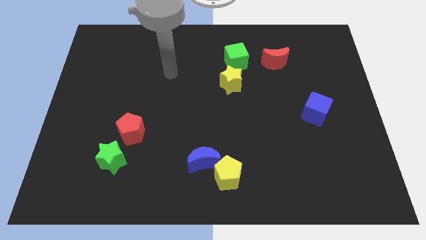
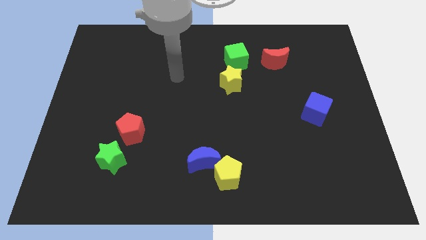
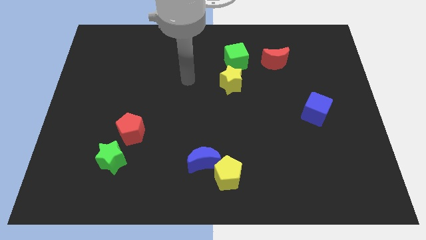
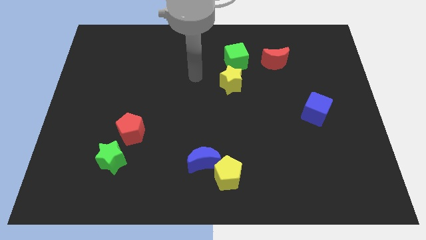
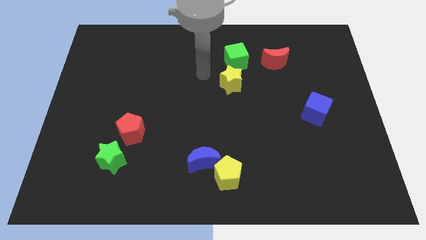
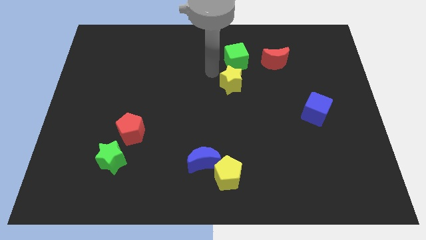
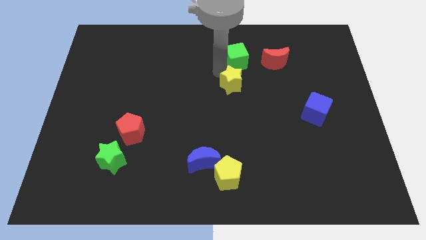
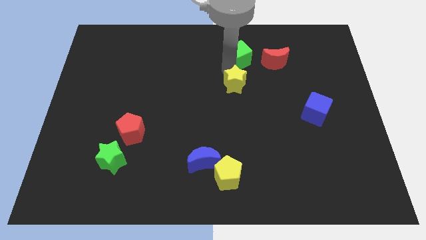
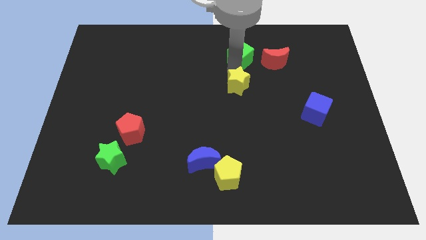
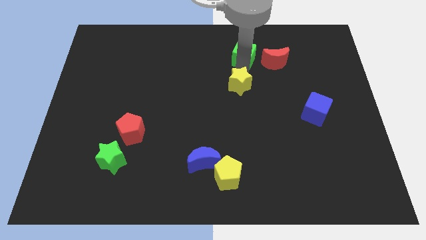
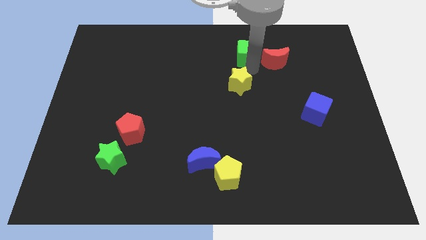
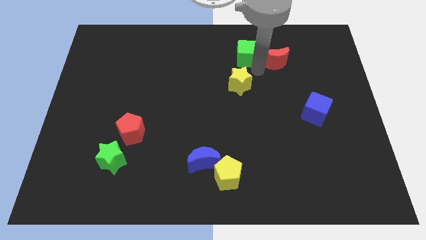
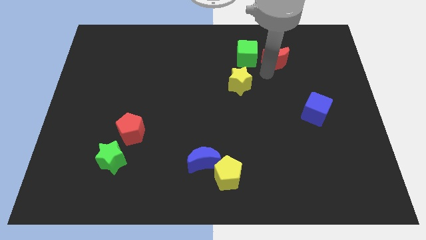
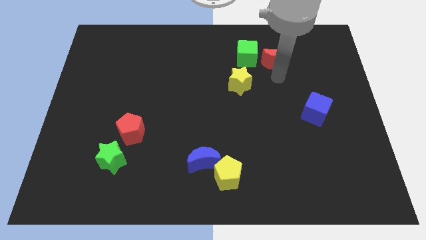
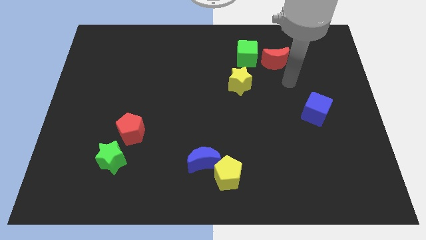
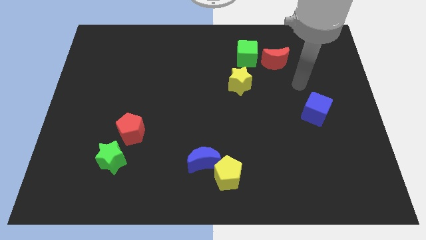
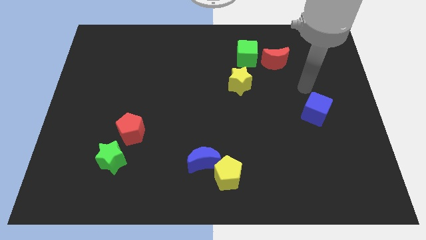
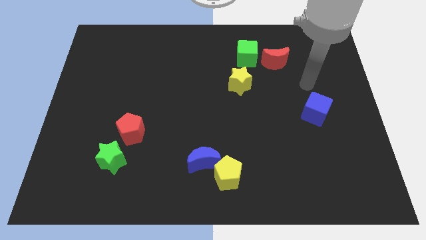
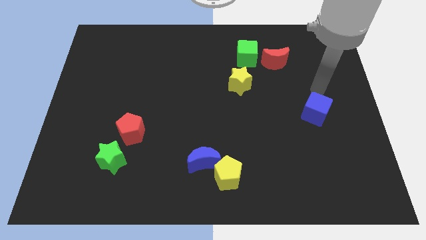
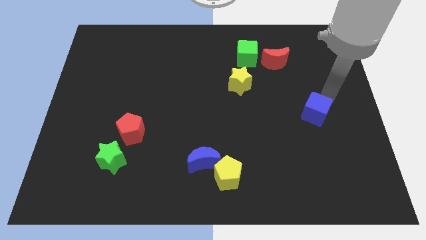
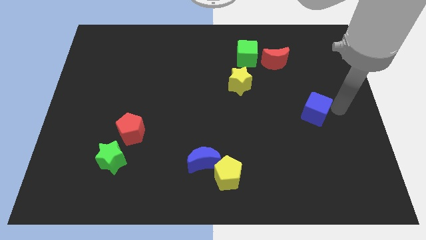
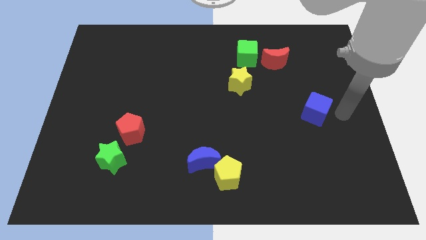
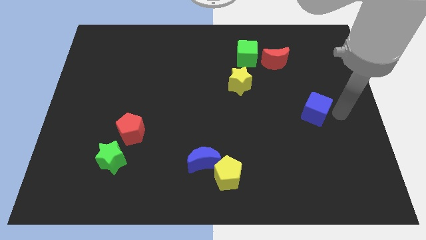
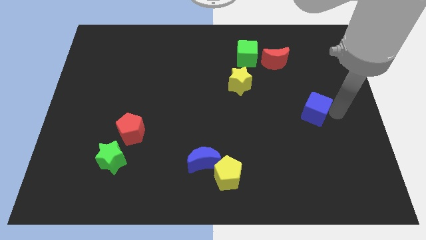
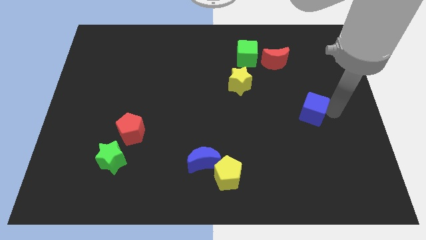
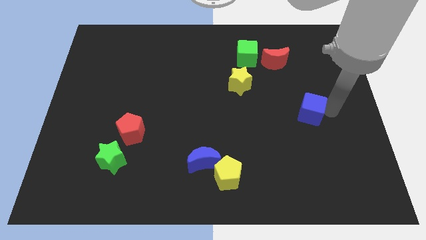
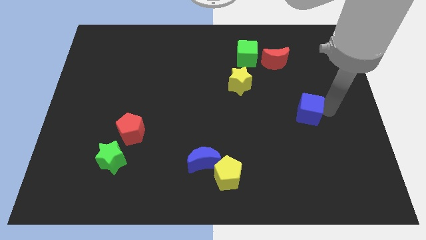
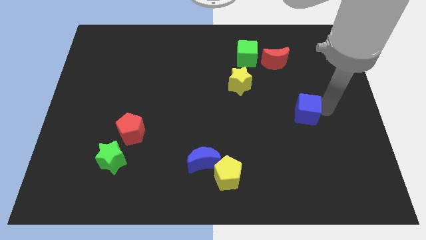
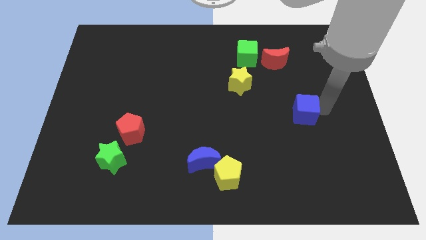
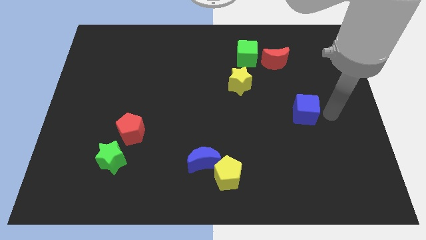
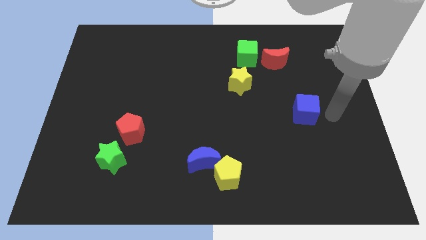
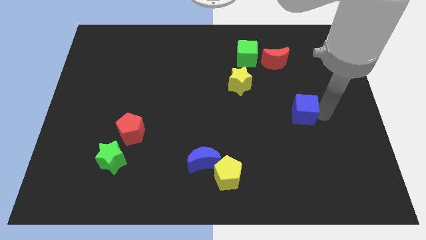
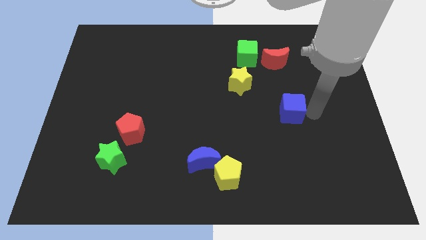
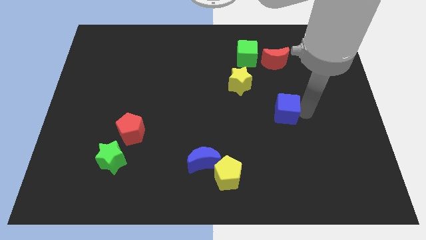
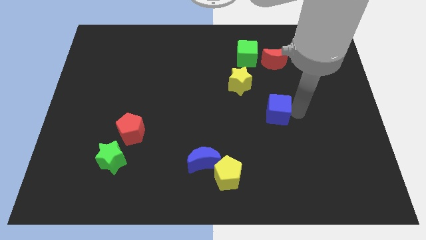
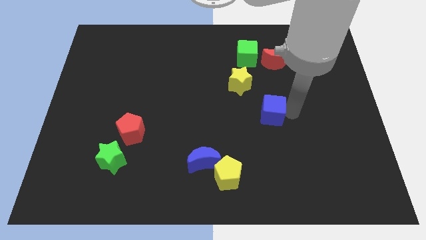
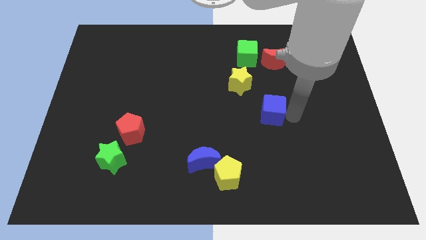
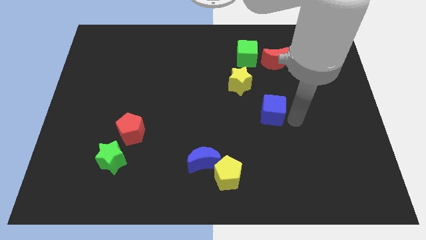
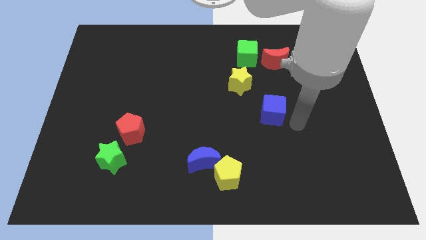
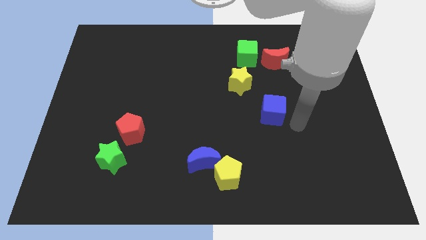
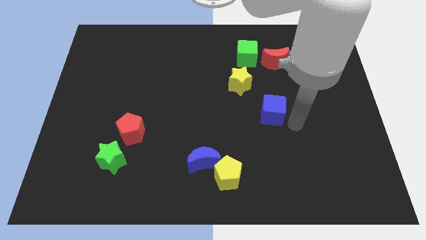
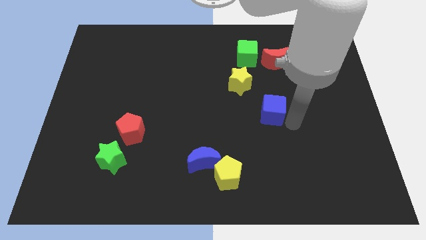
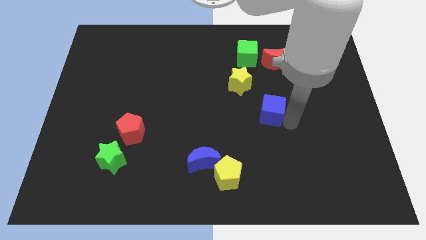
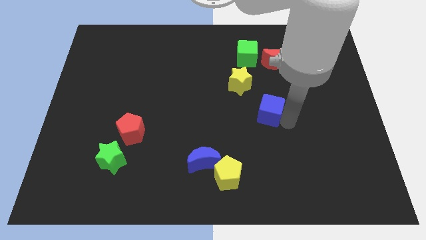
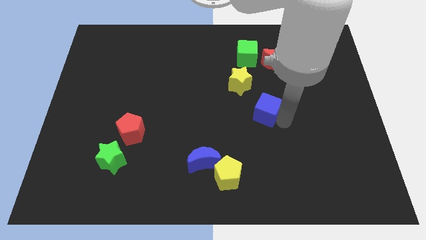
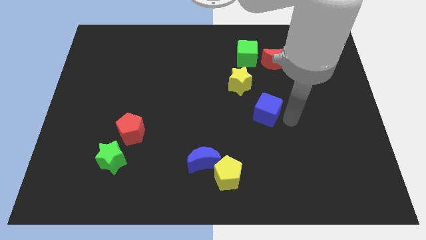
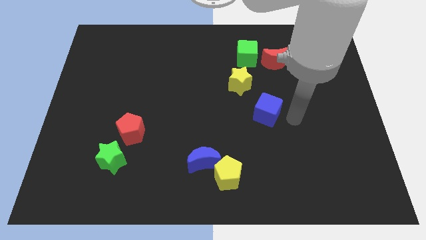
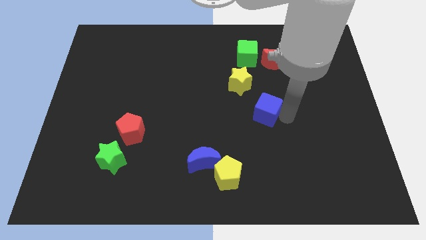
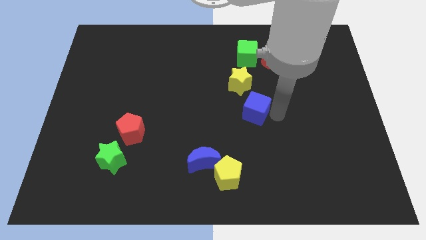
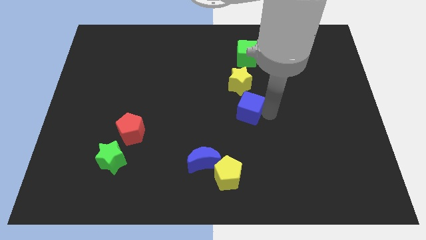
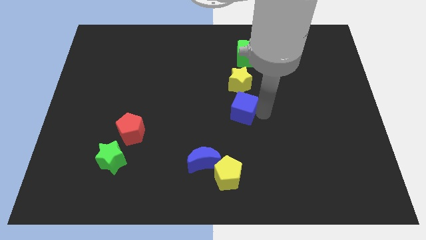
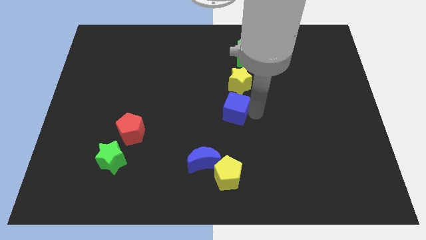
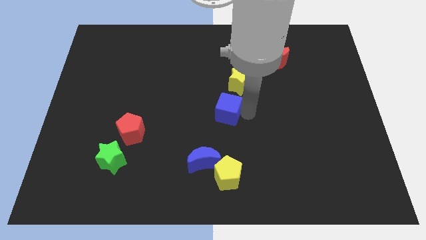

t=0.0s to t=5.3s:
put the blue cube to the bottom left of the yellow star

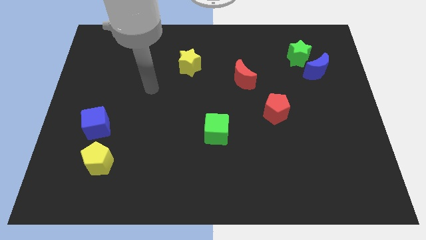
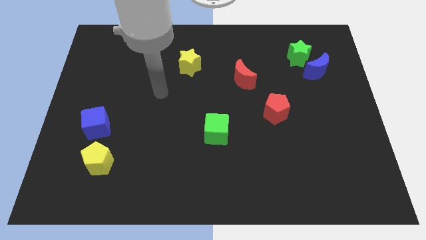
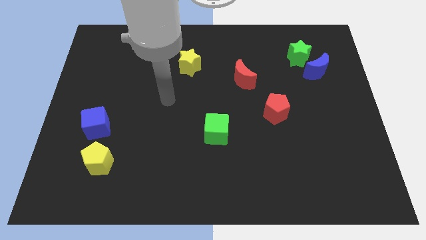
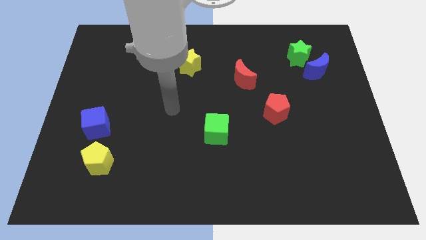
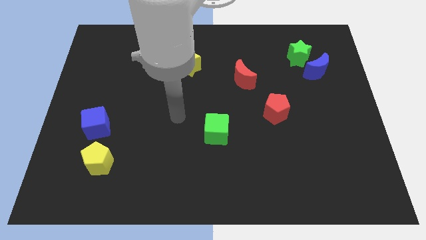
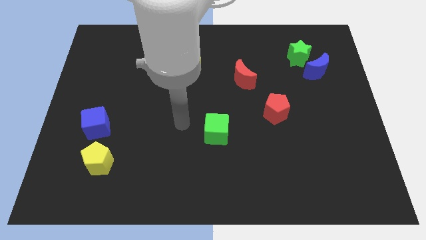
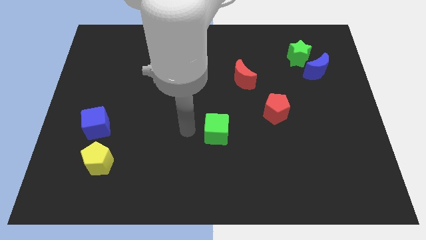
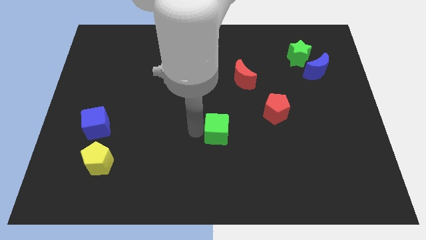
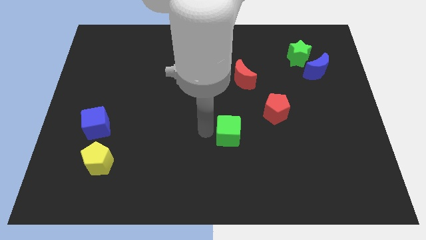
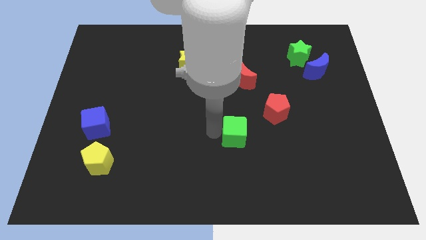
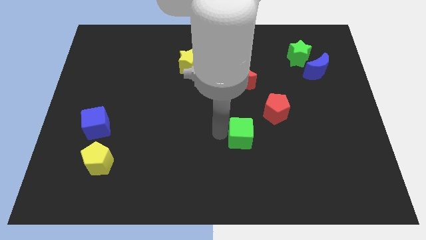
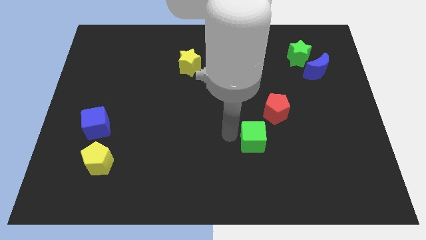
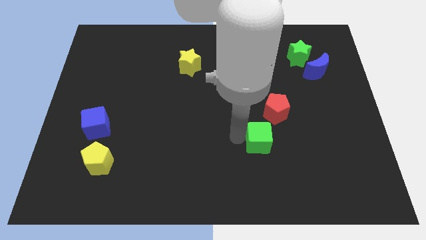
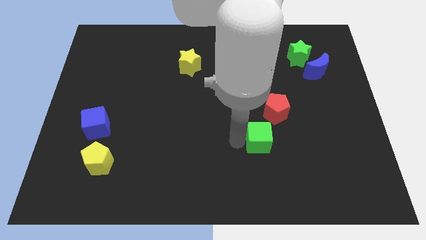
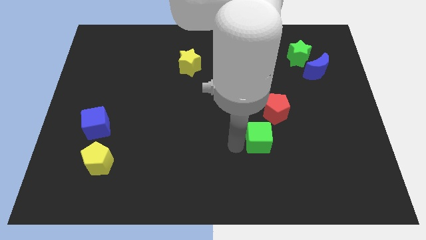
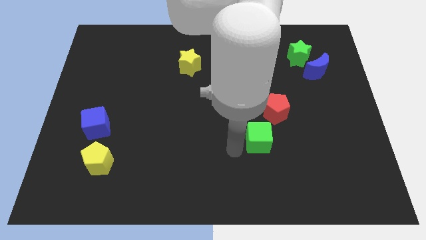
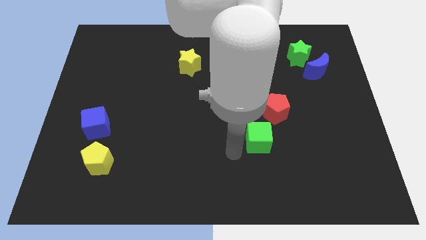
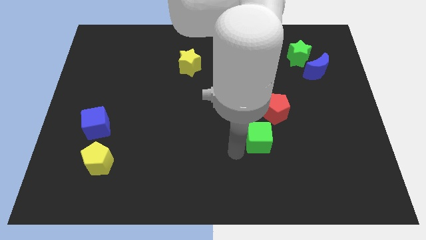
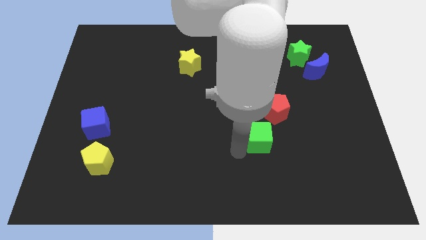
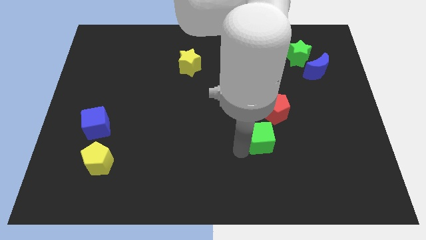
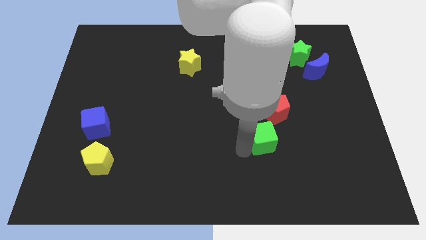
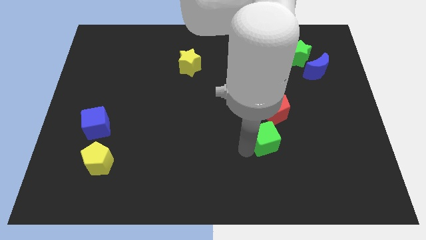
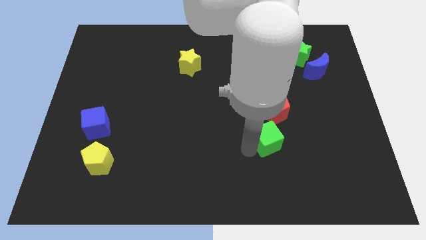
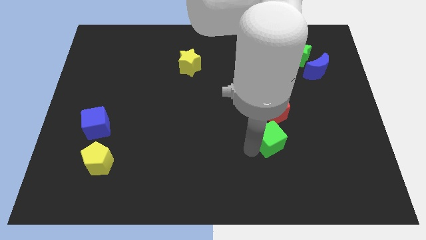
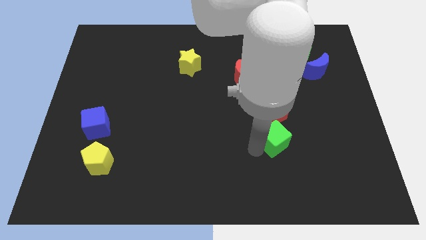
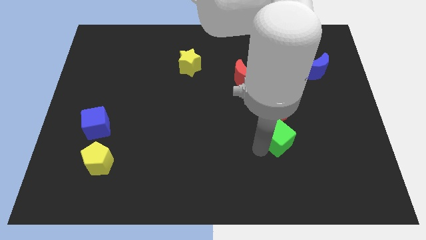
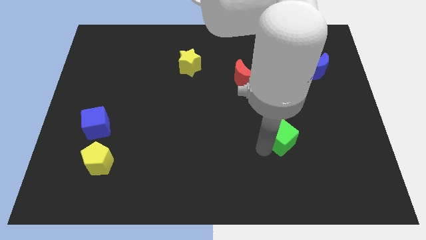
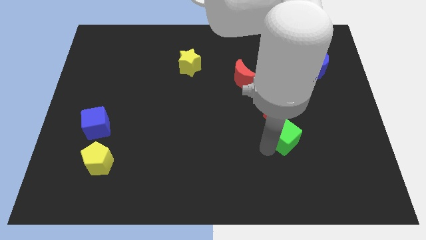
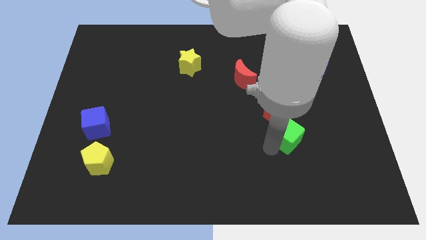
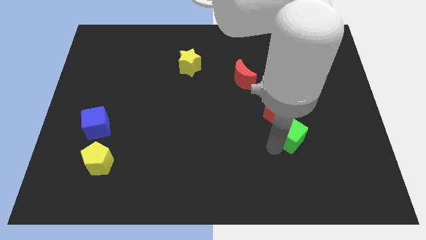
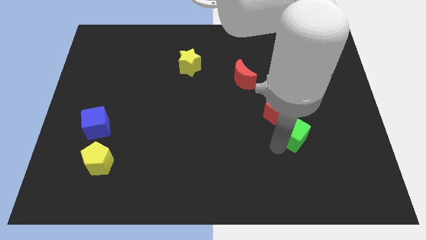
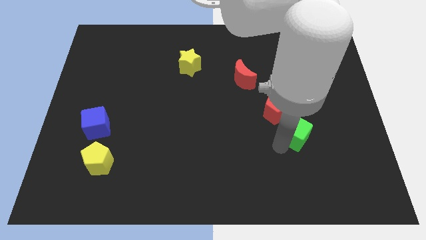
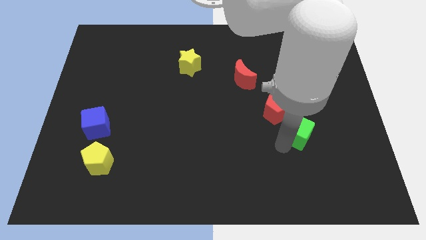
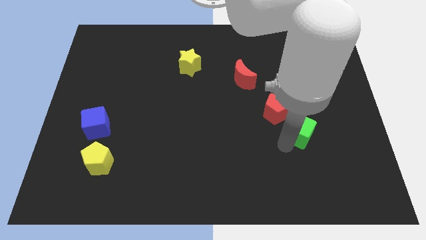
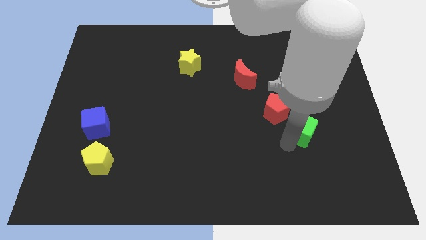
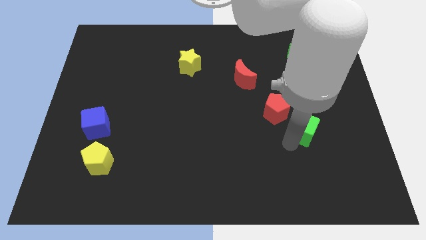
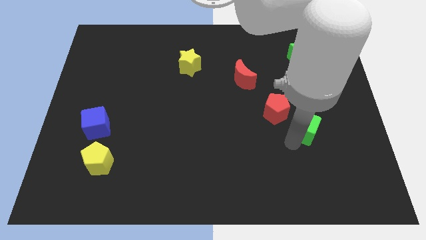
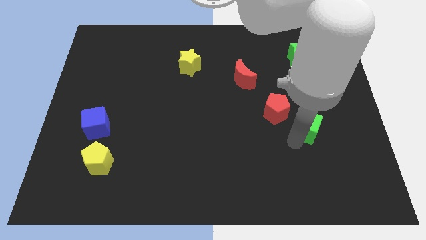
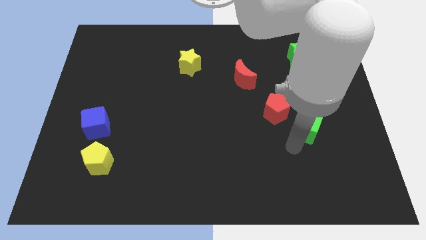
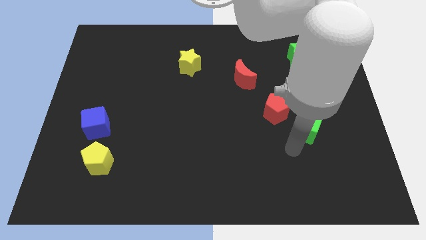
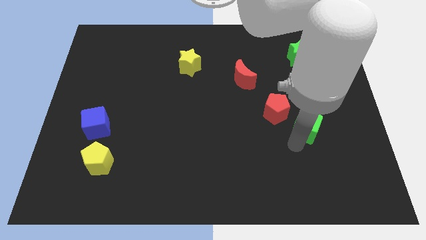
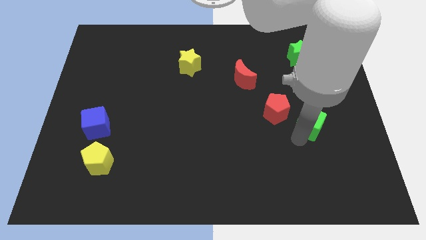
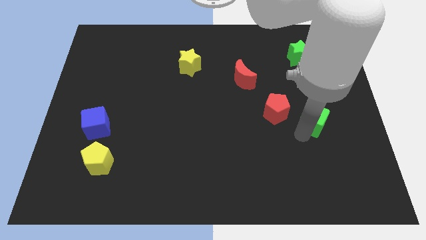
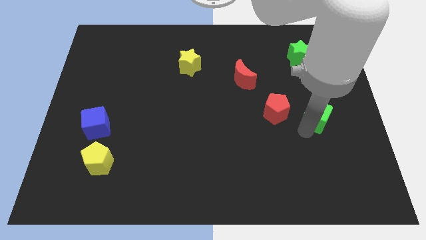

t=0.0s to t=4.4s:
slide the green cube below the blue moon
